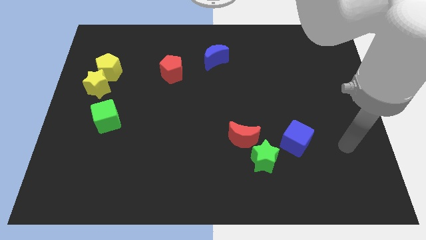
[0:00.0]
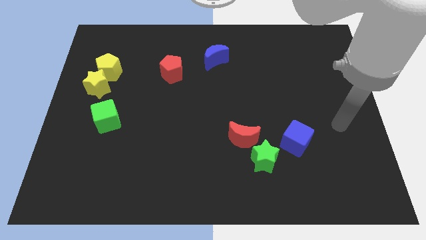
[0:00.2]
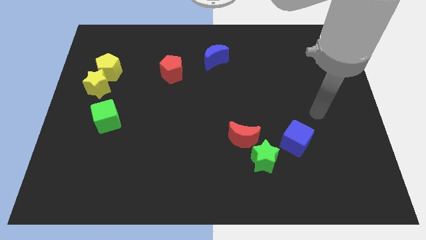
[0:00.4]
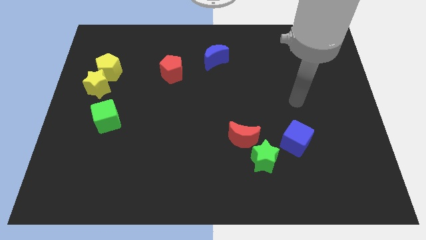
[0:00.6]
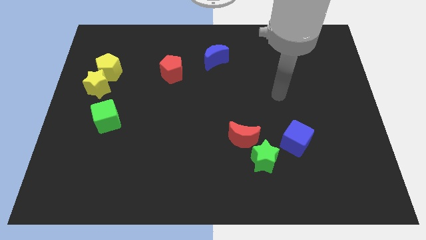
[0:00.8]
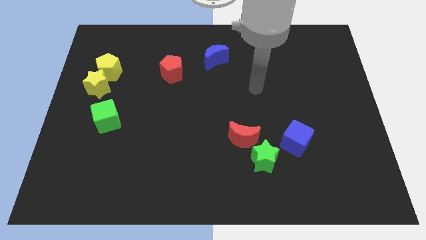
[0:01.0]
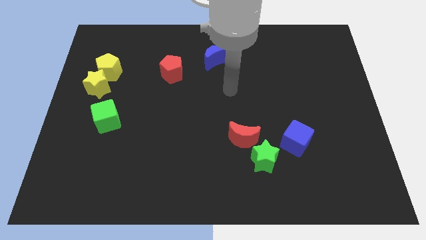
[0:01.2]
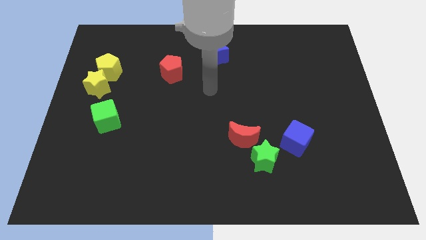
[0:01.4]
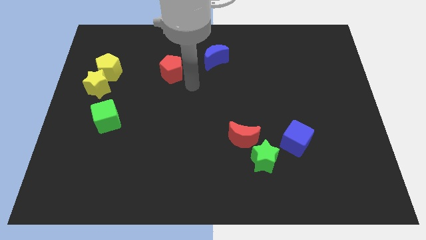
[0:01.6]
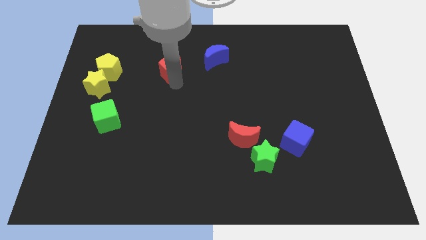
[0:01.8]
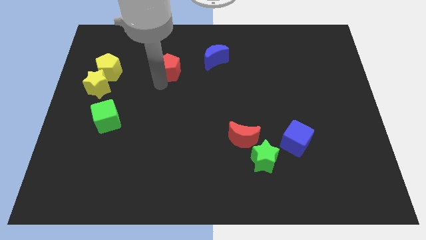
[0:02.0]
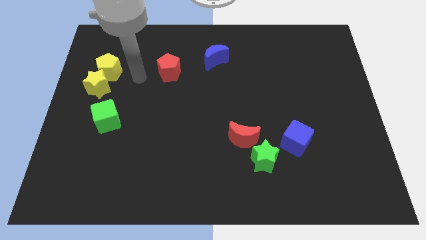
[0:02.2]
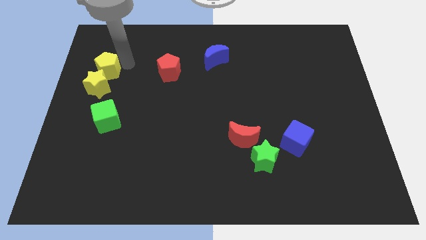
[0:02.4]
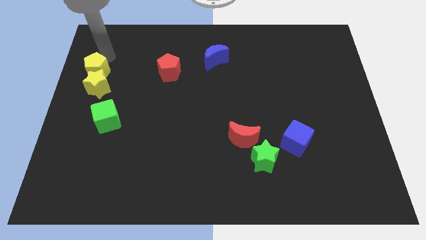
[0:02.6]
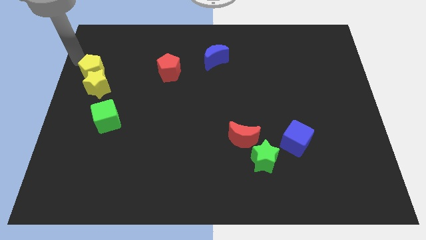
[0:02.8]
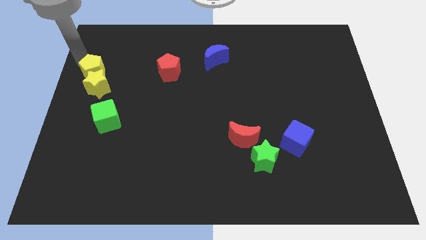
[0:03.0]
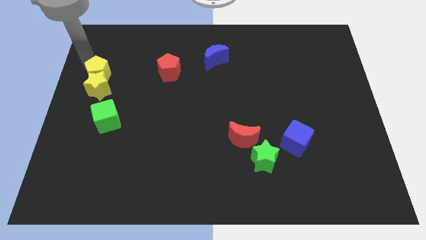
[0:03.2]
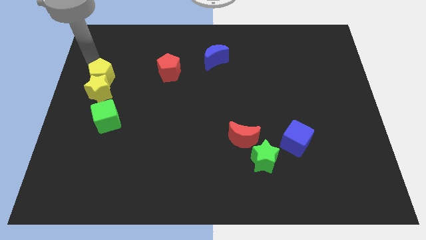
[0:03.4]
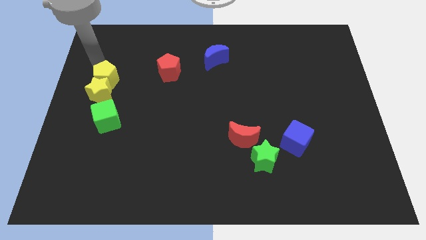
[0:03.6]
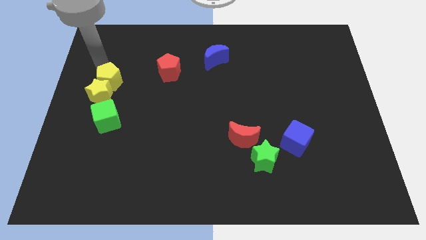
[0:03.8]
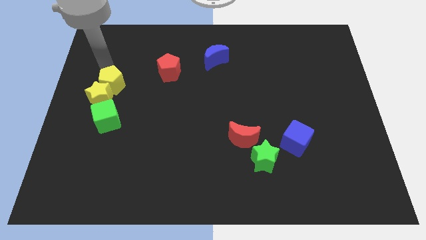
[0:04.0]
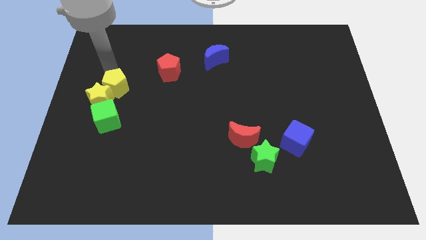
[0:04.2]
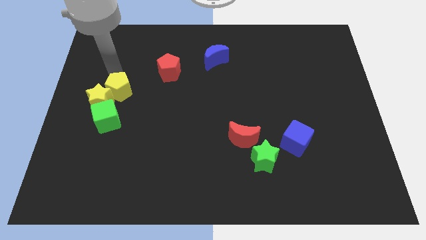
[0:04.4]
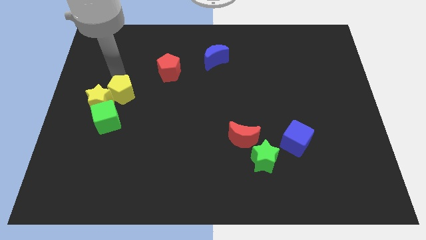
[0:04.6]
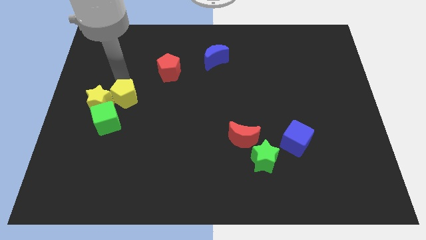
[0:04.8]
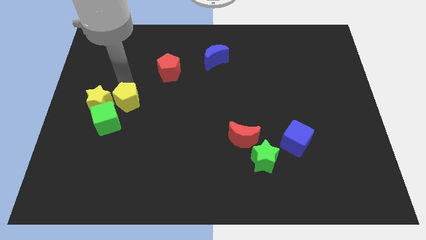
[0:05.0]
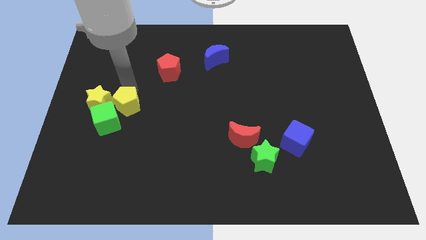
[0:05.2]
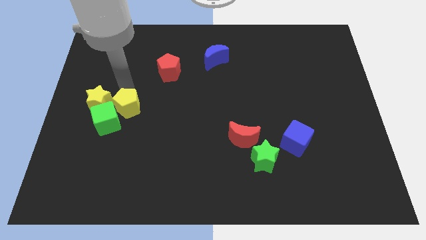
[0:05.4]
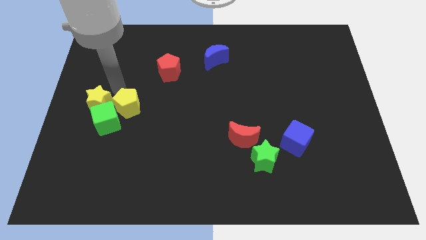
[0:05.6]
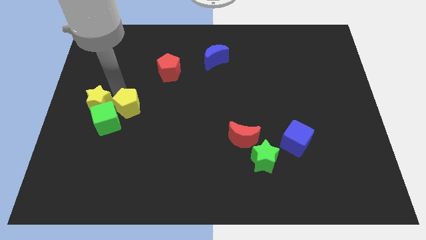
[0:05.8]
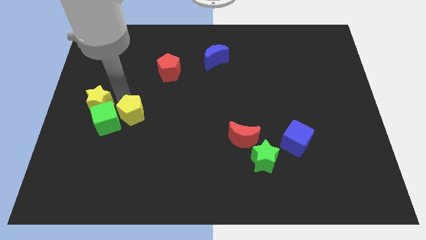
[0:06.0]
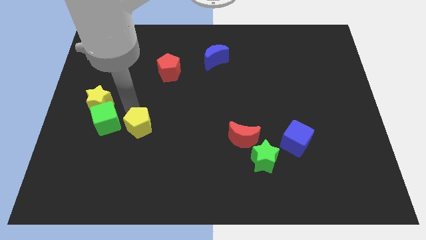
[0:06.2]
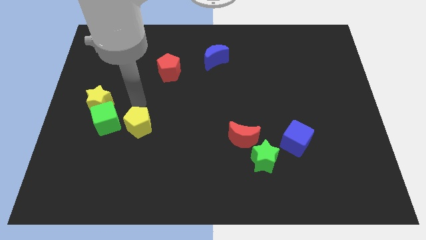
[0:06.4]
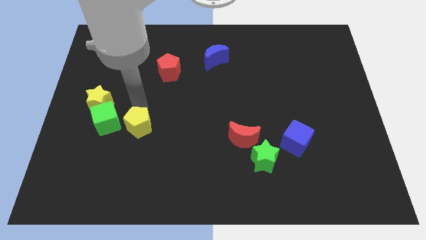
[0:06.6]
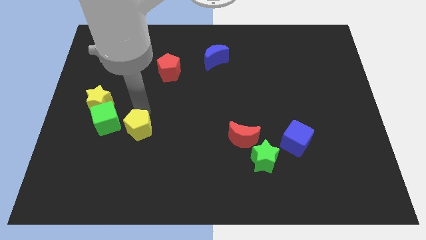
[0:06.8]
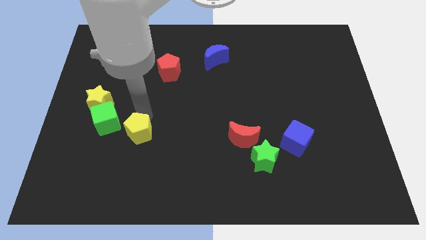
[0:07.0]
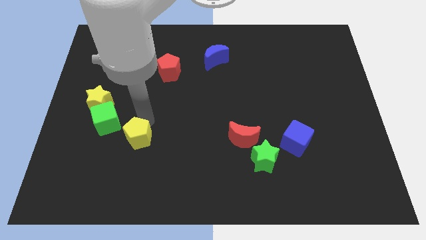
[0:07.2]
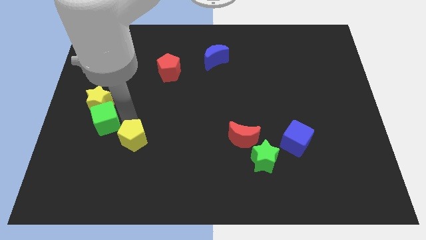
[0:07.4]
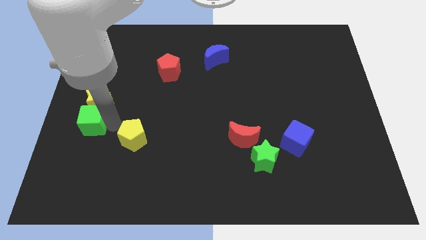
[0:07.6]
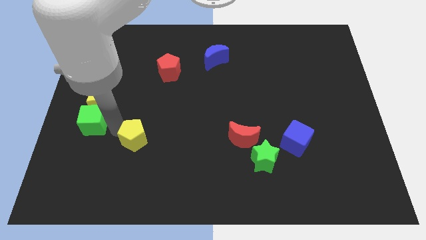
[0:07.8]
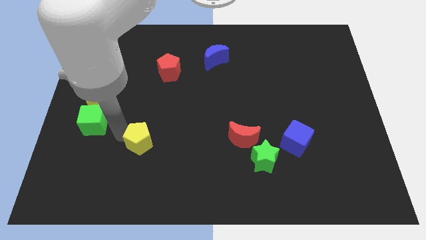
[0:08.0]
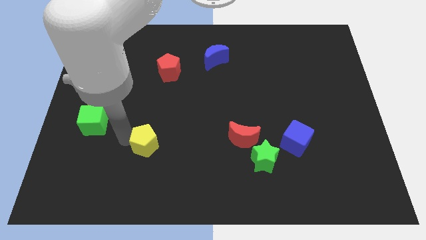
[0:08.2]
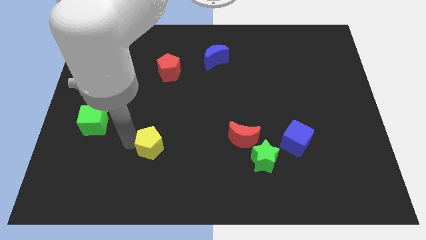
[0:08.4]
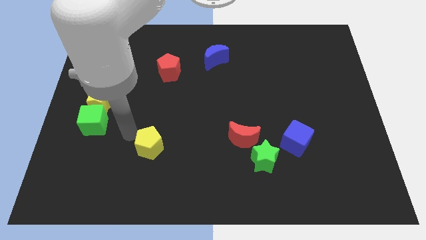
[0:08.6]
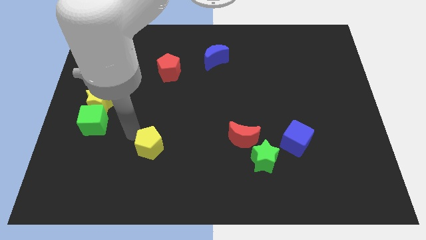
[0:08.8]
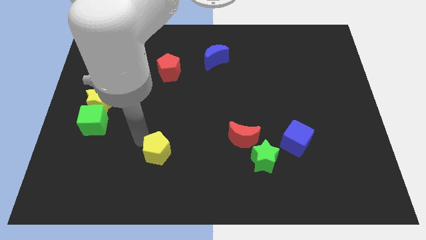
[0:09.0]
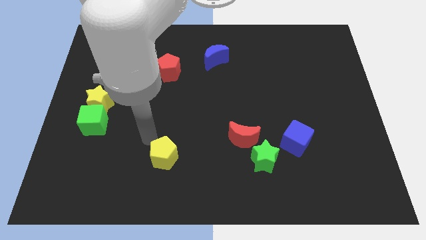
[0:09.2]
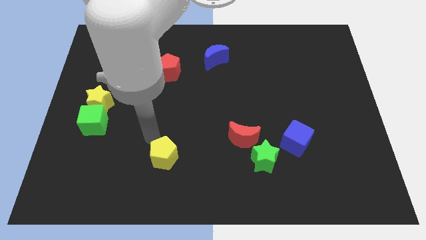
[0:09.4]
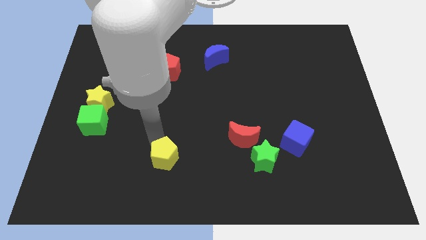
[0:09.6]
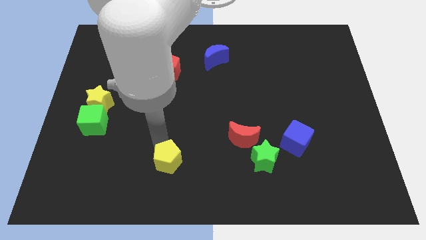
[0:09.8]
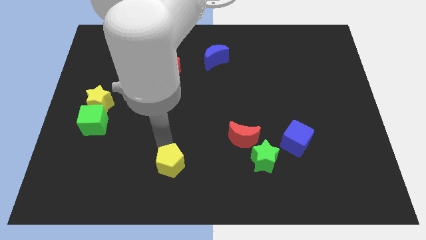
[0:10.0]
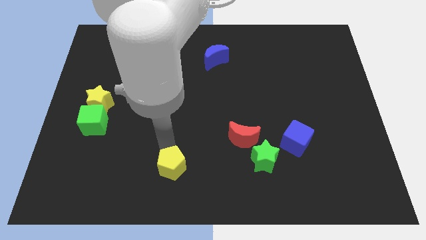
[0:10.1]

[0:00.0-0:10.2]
push the yellow pentagon to the bottom side
